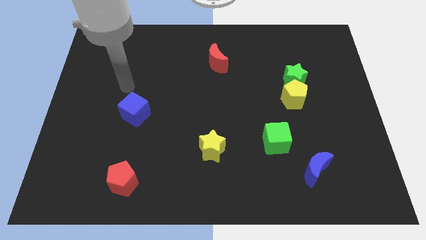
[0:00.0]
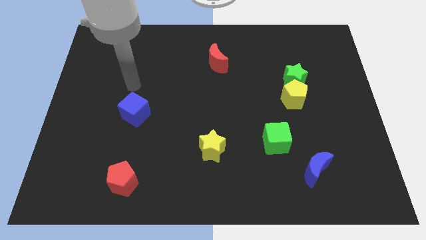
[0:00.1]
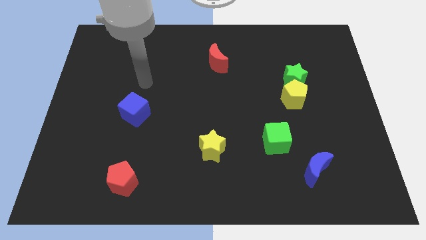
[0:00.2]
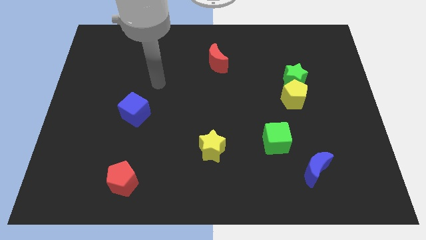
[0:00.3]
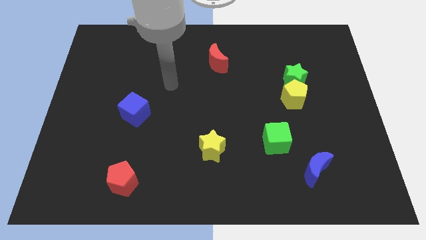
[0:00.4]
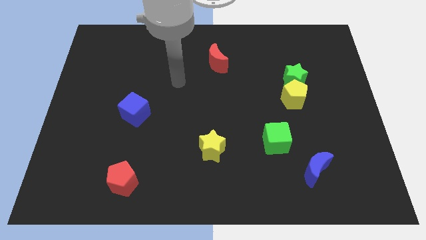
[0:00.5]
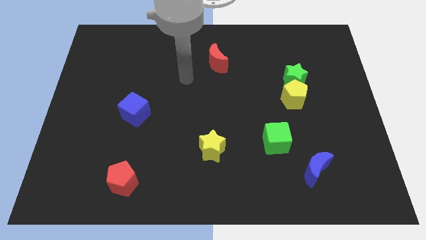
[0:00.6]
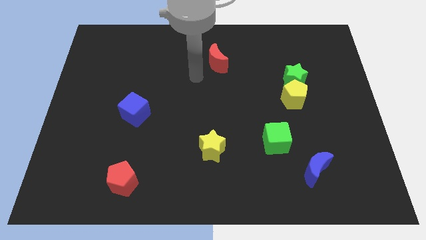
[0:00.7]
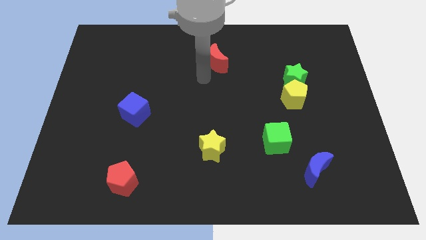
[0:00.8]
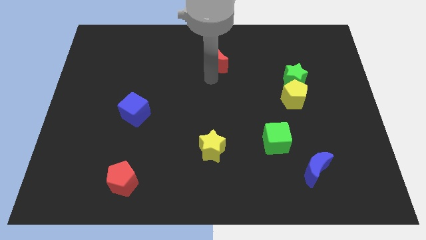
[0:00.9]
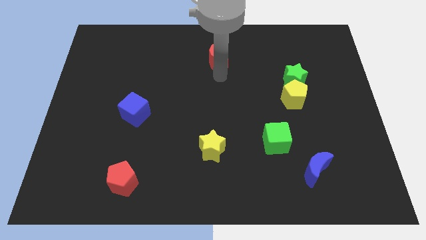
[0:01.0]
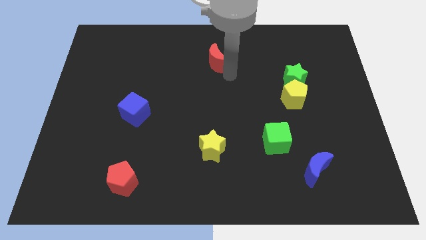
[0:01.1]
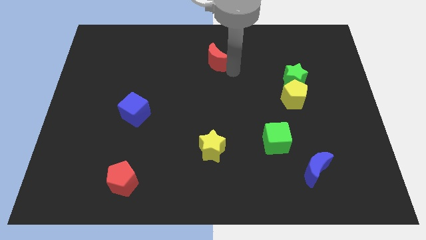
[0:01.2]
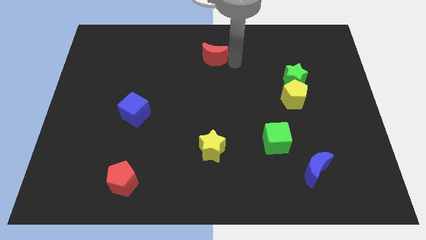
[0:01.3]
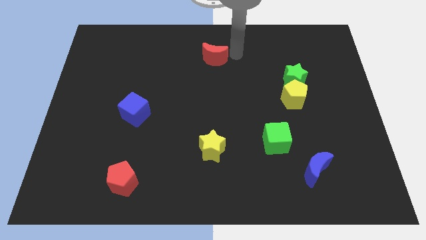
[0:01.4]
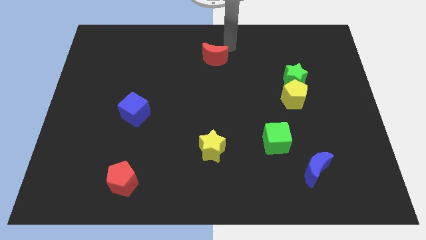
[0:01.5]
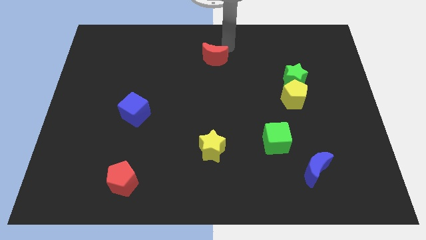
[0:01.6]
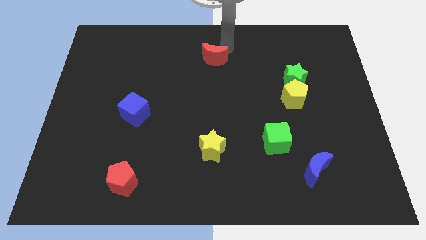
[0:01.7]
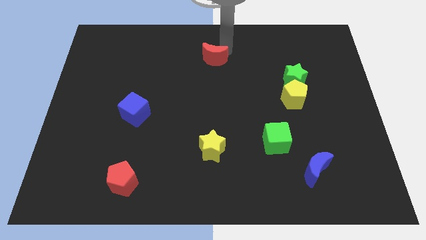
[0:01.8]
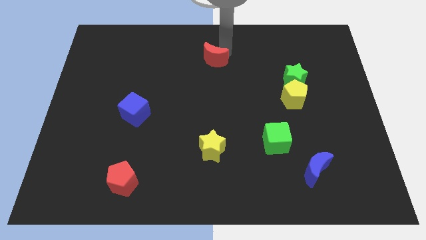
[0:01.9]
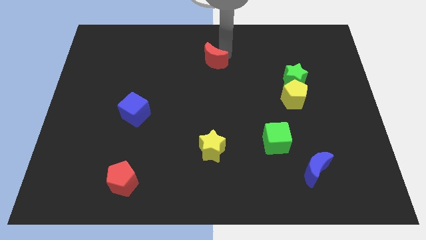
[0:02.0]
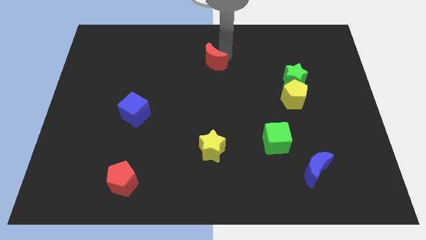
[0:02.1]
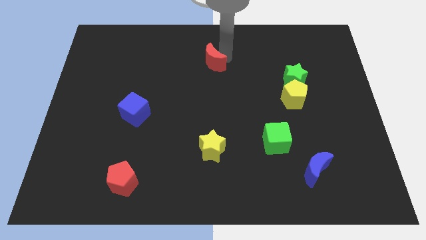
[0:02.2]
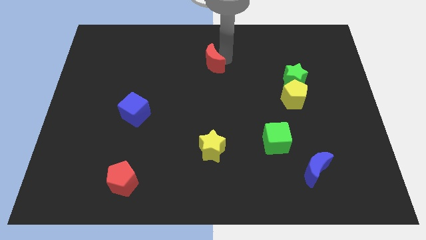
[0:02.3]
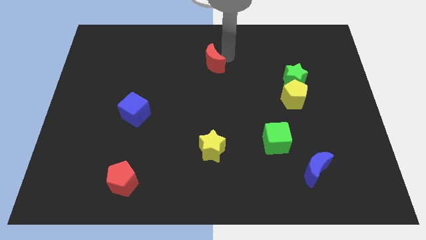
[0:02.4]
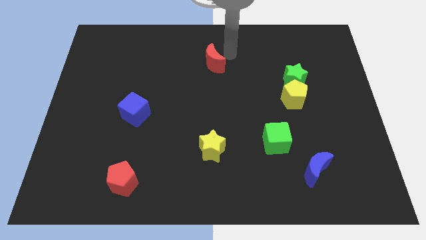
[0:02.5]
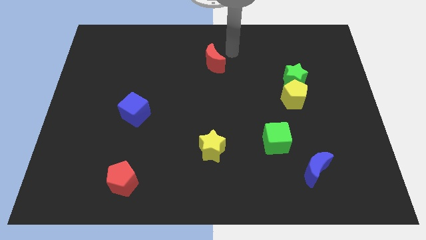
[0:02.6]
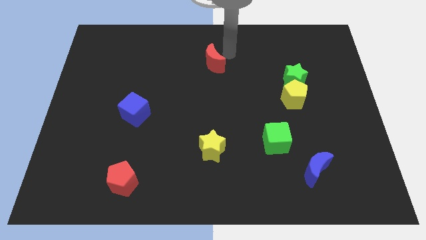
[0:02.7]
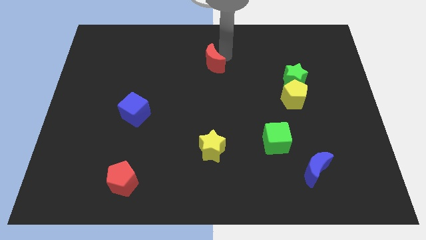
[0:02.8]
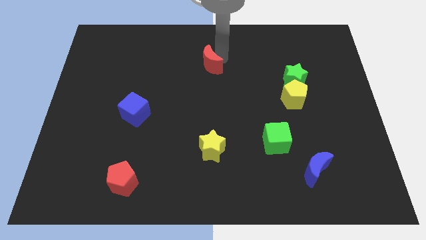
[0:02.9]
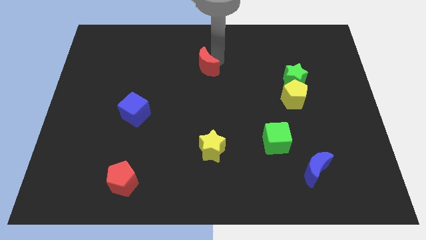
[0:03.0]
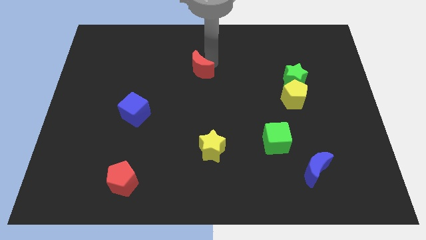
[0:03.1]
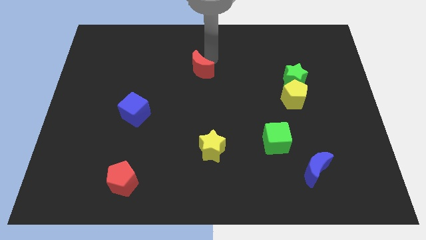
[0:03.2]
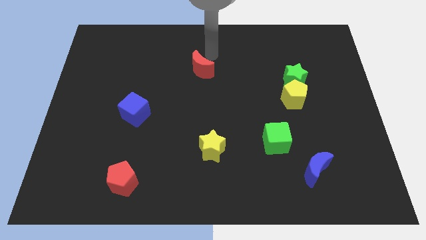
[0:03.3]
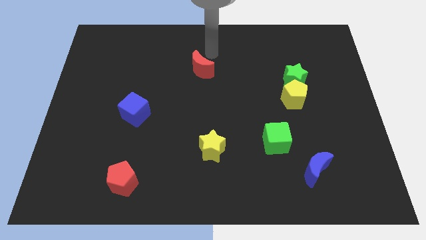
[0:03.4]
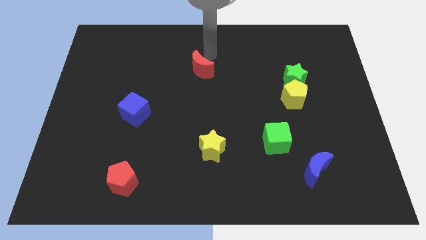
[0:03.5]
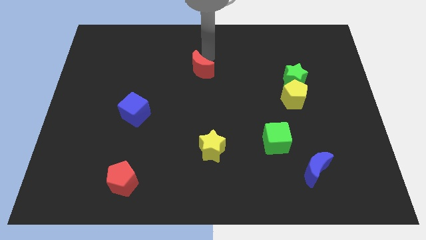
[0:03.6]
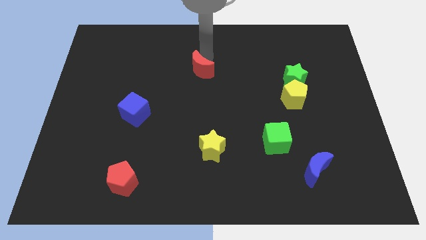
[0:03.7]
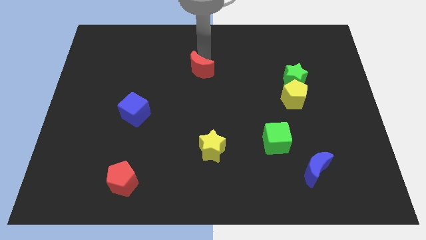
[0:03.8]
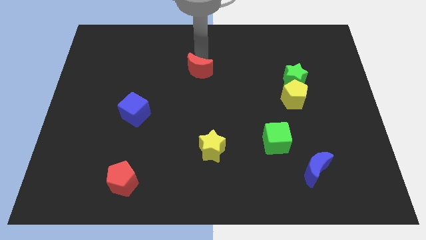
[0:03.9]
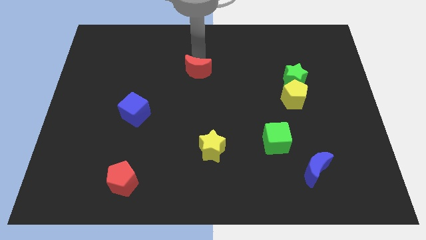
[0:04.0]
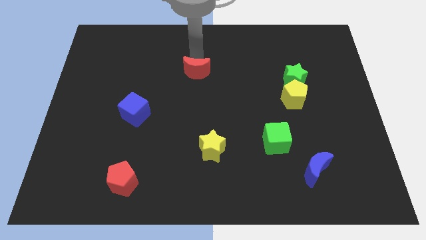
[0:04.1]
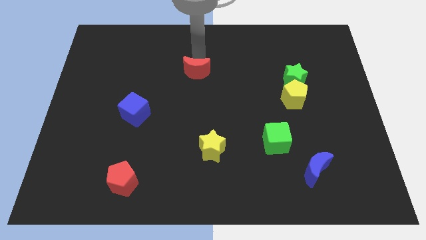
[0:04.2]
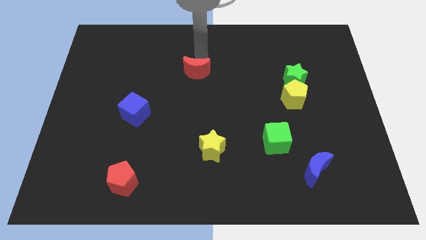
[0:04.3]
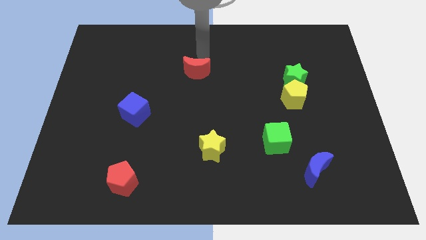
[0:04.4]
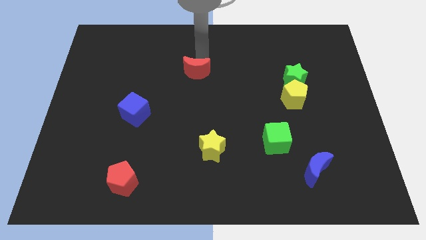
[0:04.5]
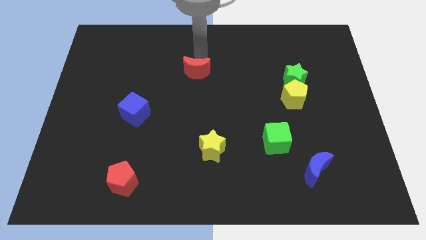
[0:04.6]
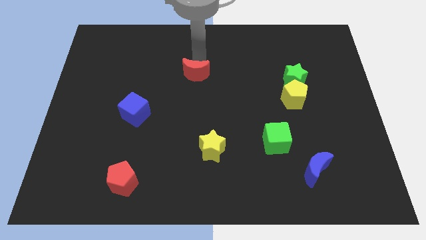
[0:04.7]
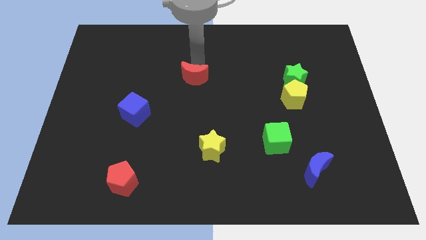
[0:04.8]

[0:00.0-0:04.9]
push the red moon downwards and then to the left slightly

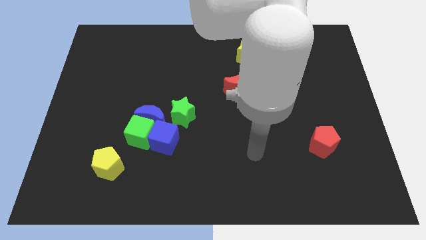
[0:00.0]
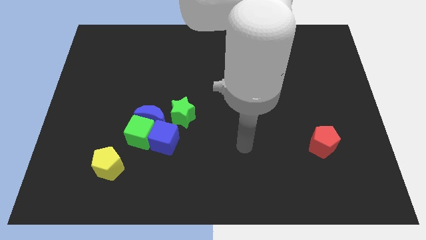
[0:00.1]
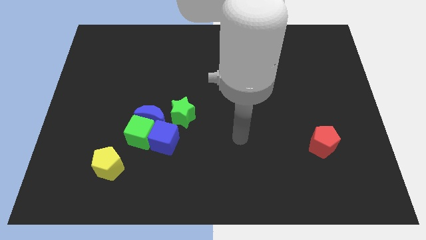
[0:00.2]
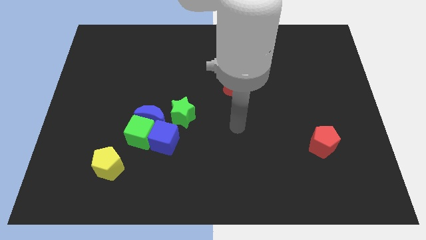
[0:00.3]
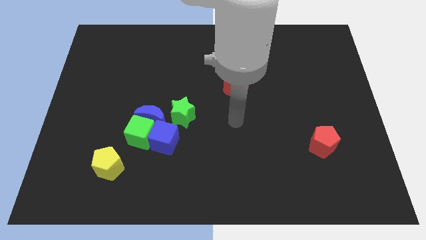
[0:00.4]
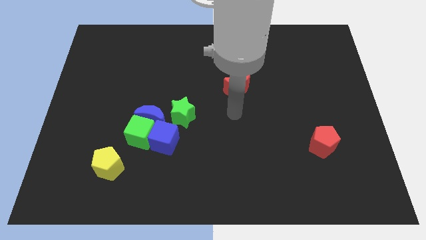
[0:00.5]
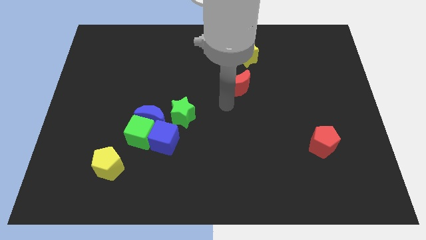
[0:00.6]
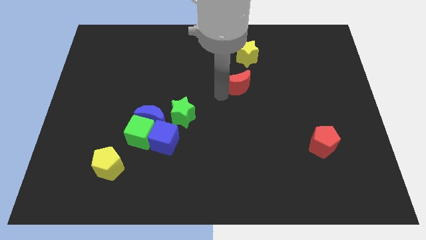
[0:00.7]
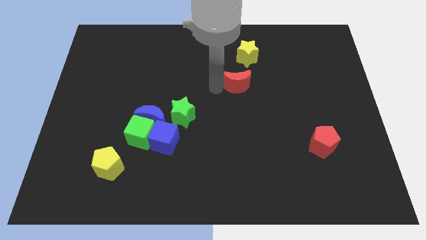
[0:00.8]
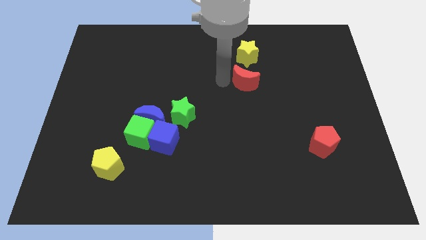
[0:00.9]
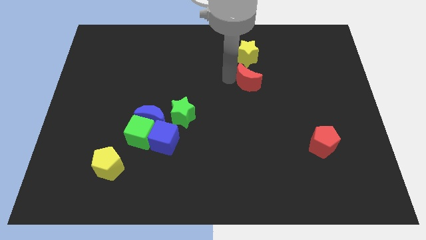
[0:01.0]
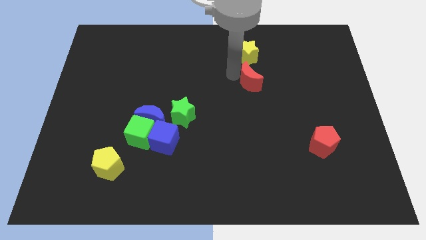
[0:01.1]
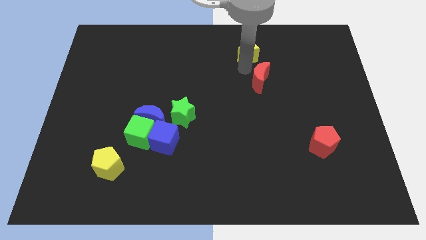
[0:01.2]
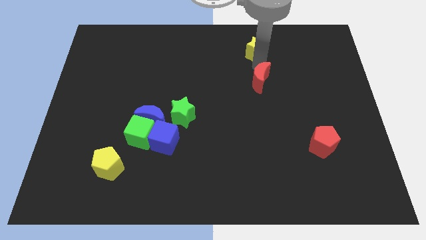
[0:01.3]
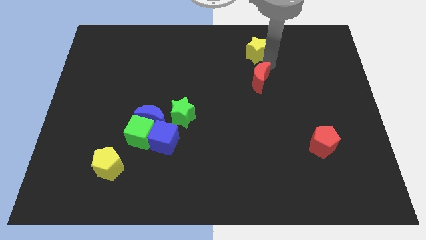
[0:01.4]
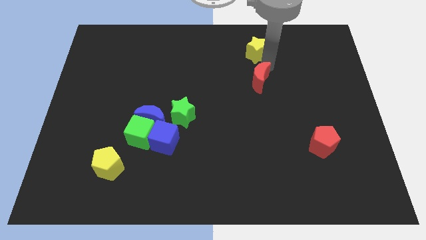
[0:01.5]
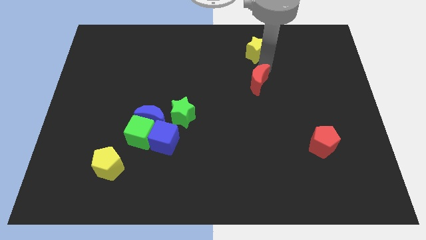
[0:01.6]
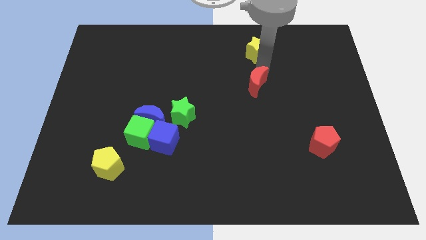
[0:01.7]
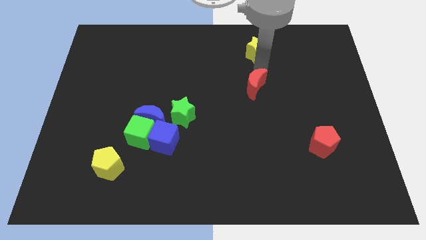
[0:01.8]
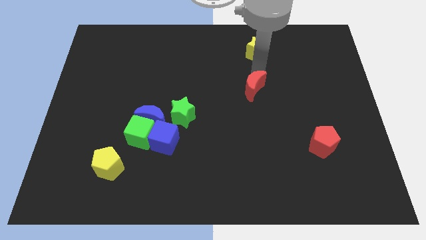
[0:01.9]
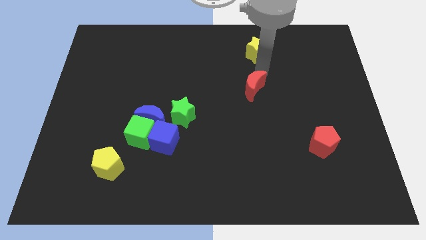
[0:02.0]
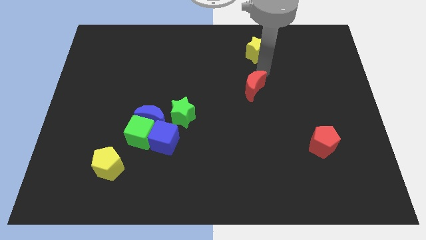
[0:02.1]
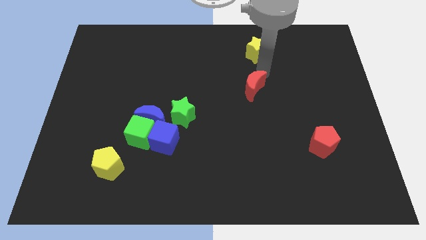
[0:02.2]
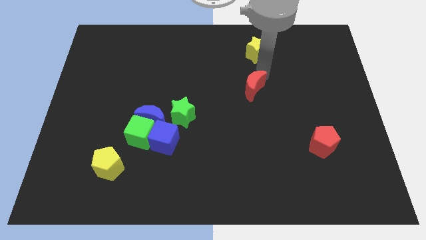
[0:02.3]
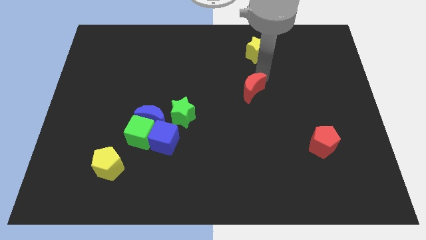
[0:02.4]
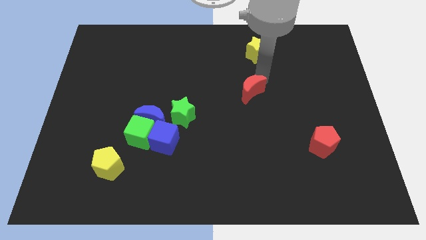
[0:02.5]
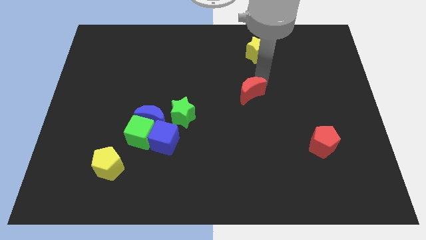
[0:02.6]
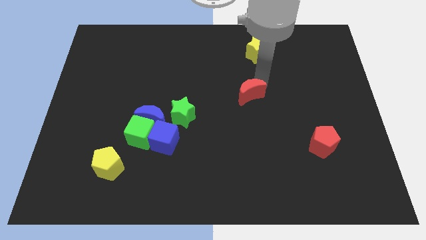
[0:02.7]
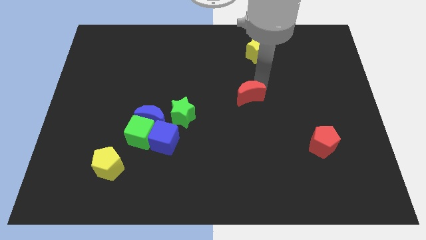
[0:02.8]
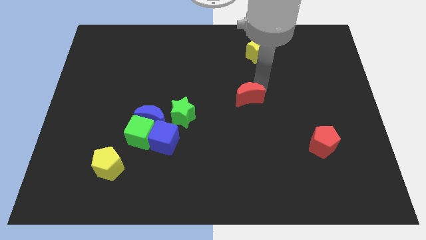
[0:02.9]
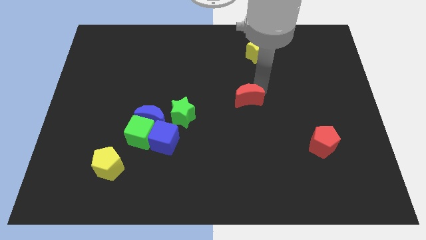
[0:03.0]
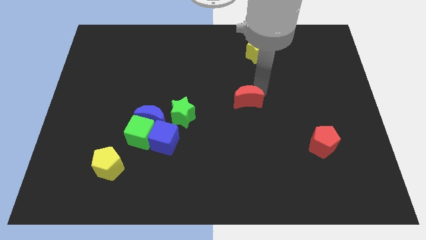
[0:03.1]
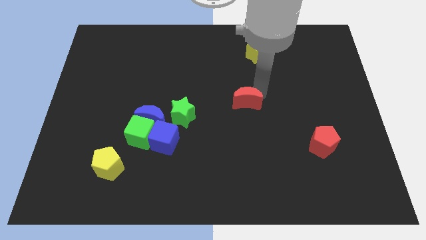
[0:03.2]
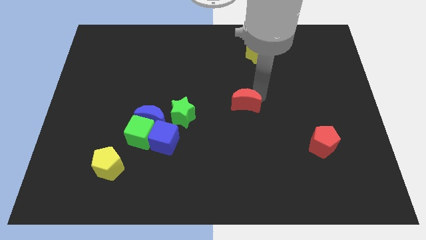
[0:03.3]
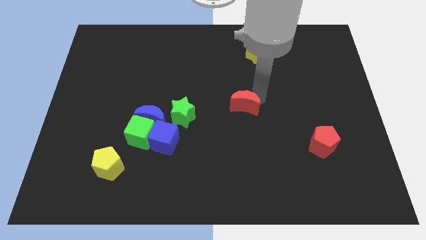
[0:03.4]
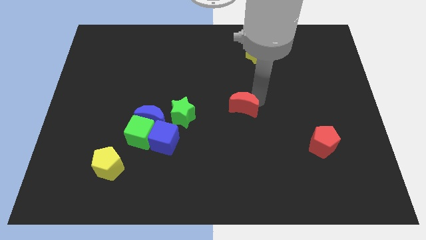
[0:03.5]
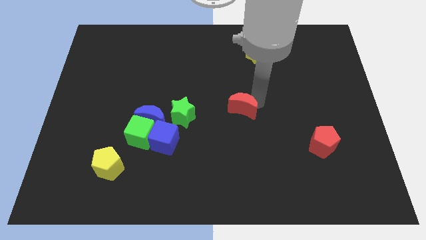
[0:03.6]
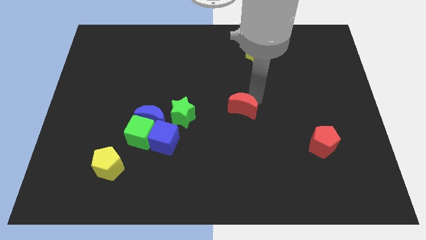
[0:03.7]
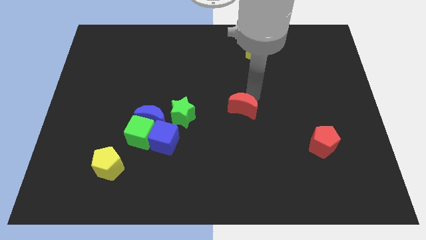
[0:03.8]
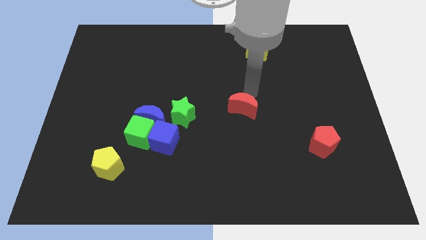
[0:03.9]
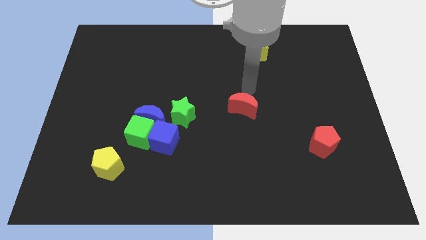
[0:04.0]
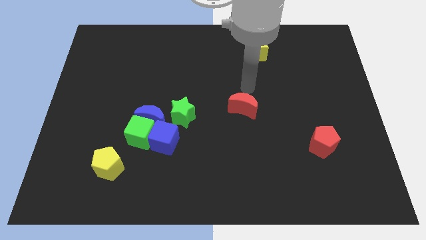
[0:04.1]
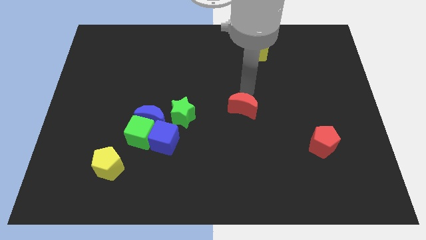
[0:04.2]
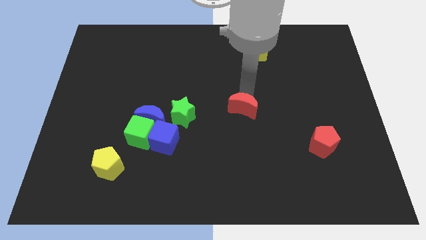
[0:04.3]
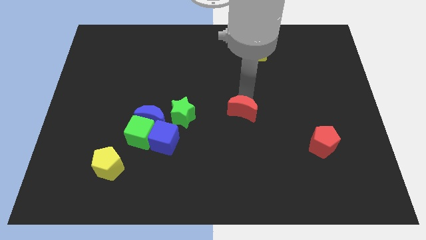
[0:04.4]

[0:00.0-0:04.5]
slightly push the red moon downwards
